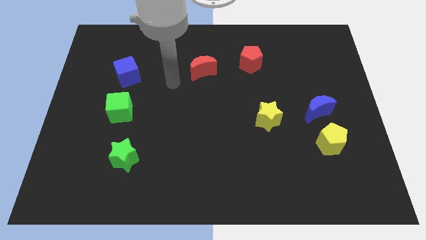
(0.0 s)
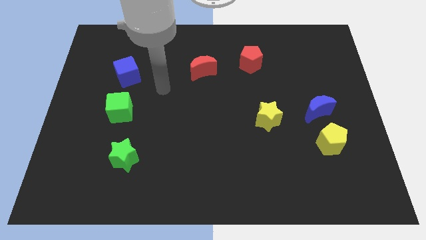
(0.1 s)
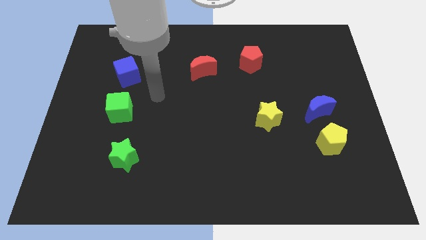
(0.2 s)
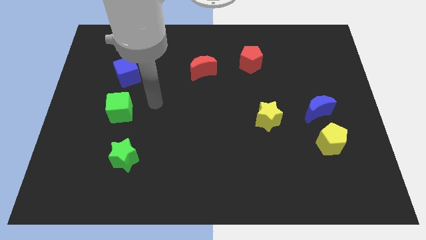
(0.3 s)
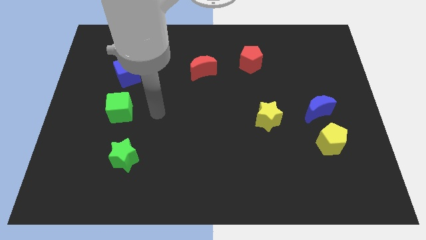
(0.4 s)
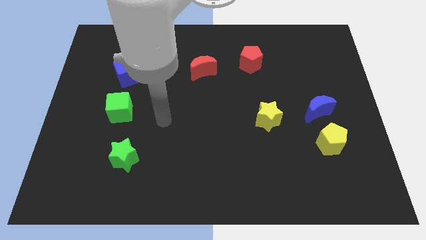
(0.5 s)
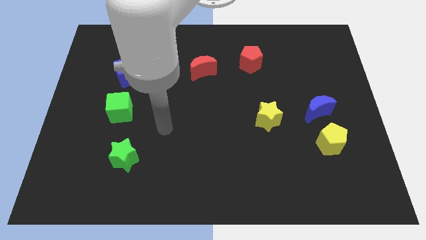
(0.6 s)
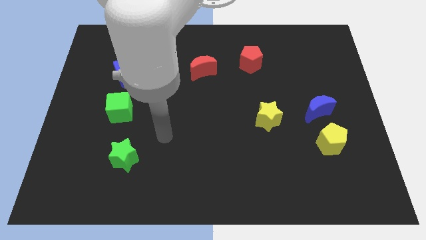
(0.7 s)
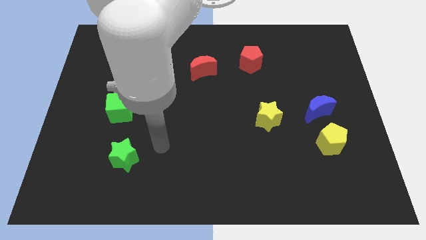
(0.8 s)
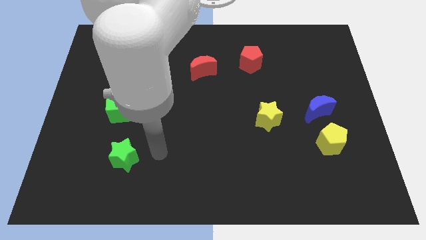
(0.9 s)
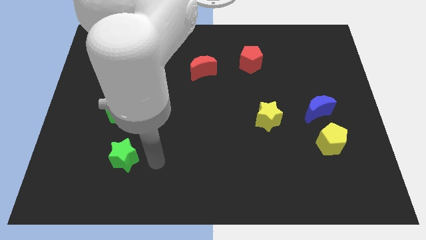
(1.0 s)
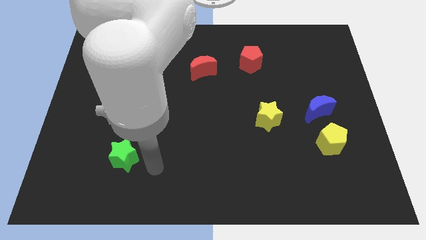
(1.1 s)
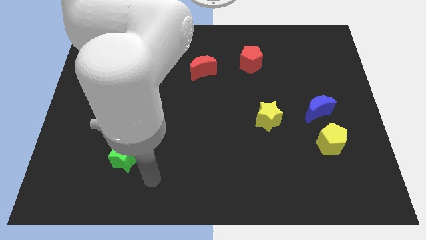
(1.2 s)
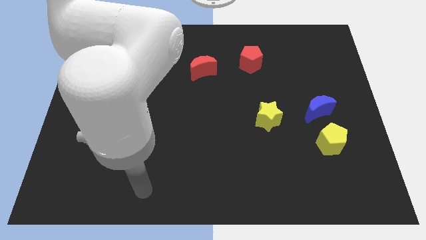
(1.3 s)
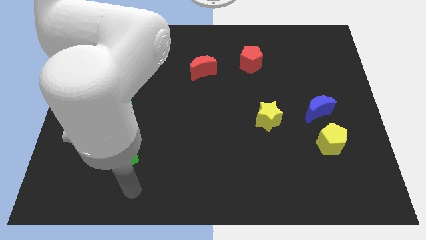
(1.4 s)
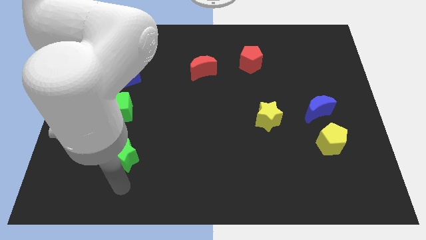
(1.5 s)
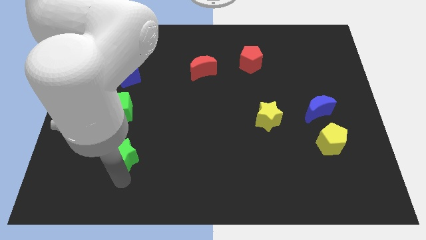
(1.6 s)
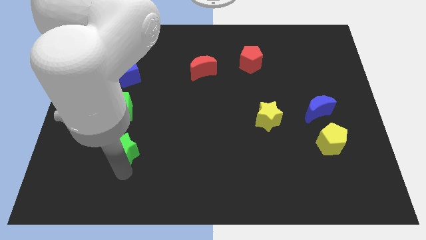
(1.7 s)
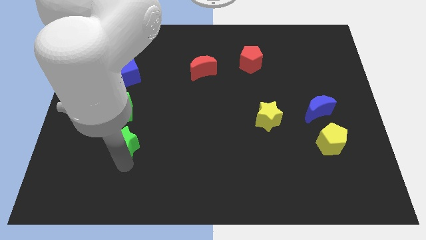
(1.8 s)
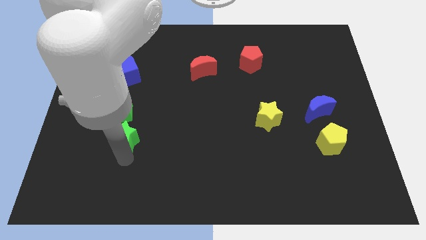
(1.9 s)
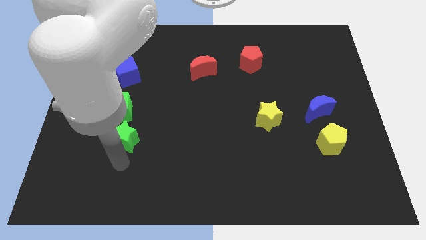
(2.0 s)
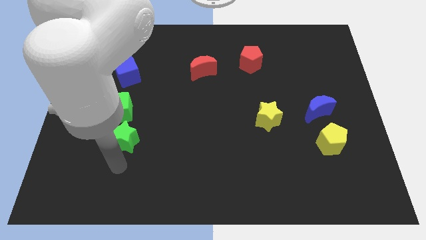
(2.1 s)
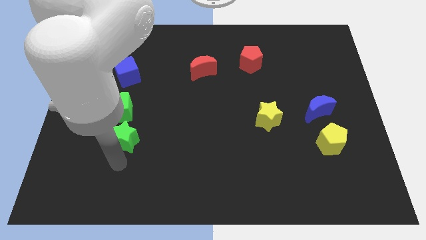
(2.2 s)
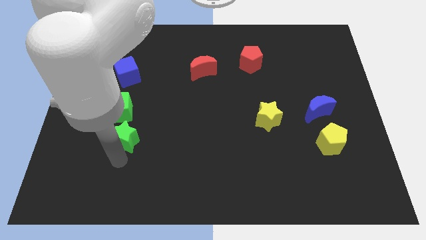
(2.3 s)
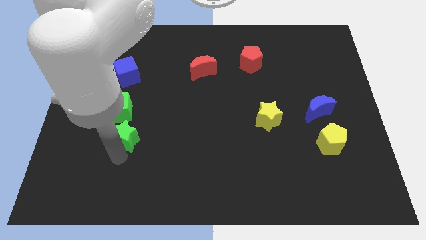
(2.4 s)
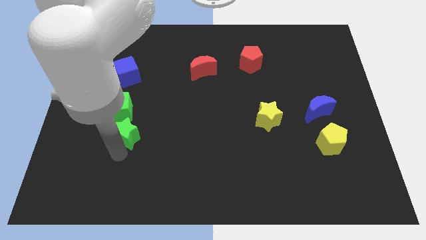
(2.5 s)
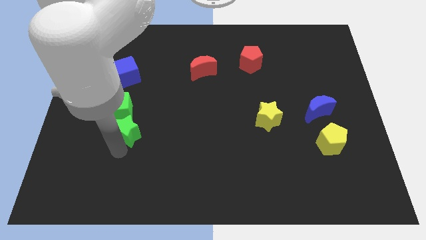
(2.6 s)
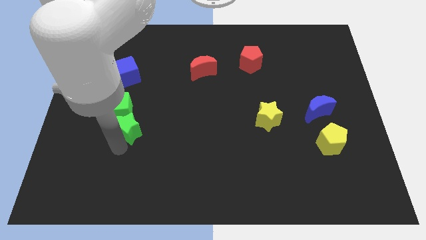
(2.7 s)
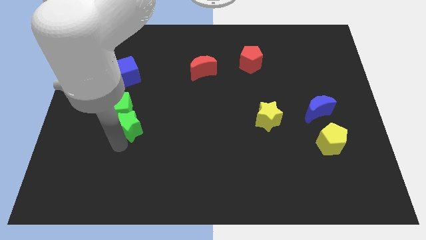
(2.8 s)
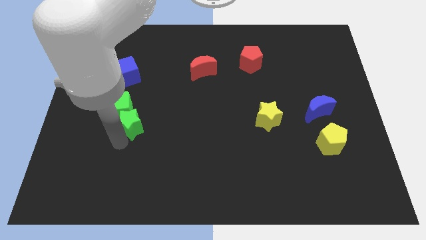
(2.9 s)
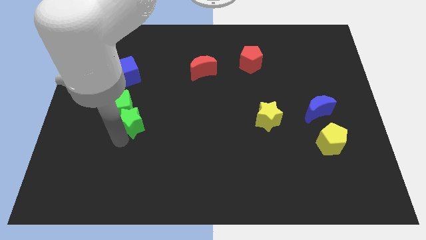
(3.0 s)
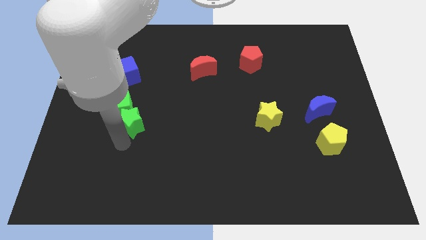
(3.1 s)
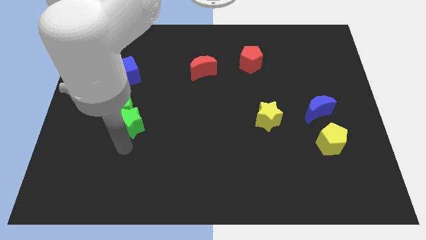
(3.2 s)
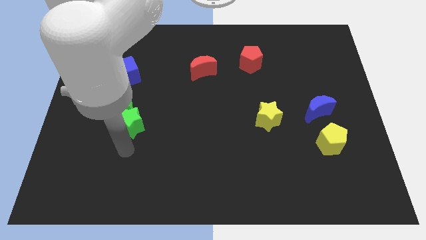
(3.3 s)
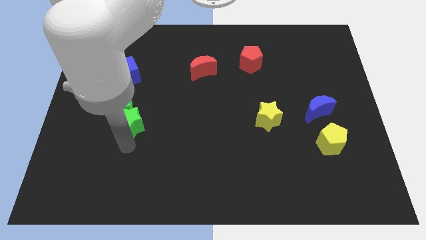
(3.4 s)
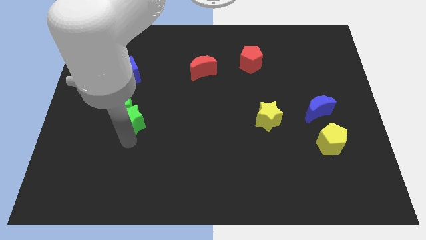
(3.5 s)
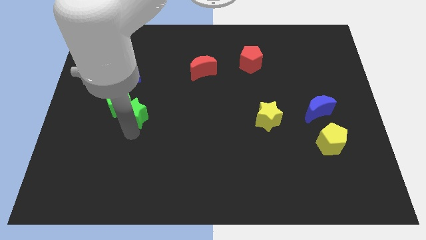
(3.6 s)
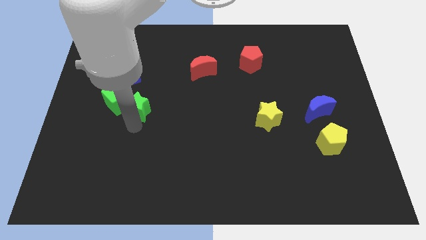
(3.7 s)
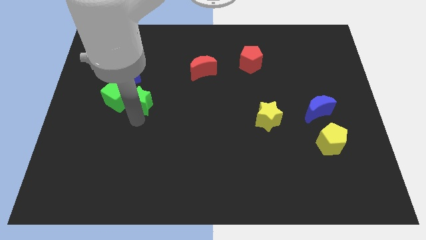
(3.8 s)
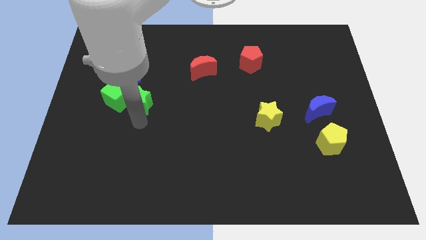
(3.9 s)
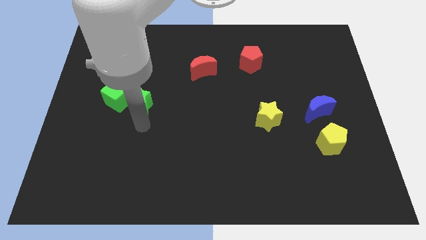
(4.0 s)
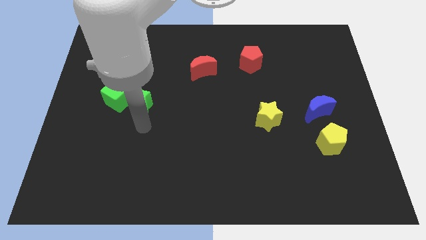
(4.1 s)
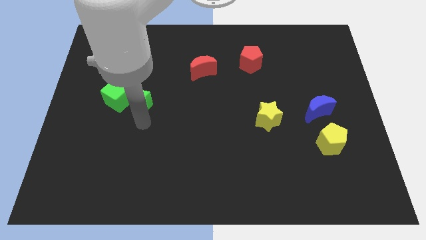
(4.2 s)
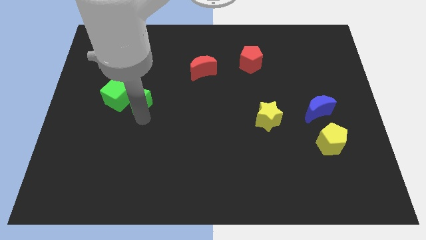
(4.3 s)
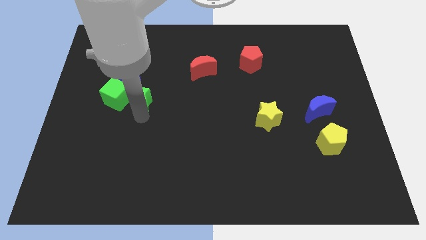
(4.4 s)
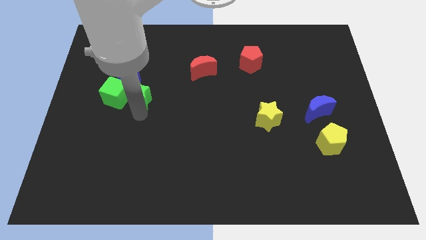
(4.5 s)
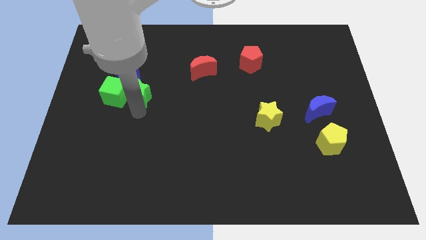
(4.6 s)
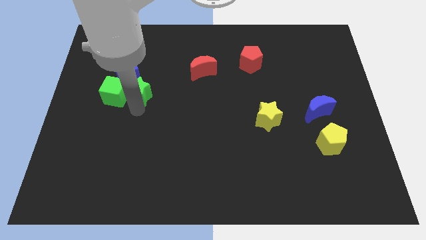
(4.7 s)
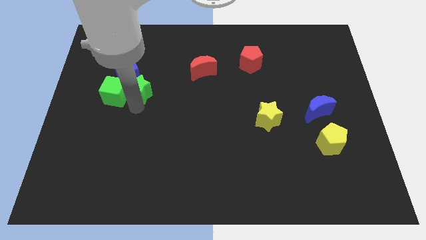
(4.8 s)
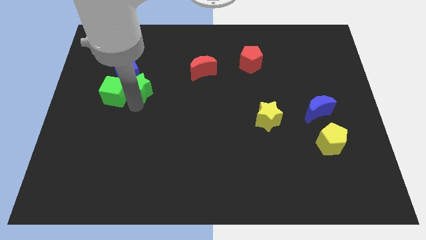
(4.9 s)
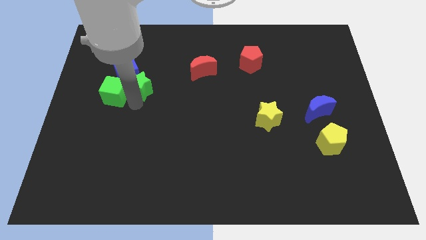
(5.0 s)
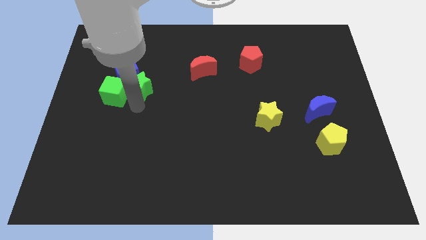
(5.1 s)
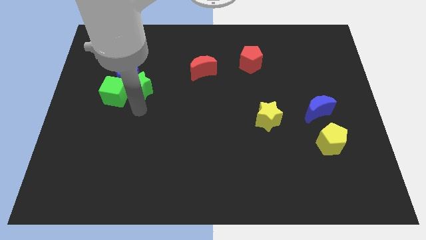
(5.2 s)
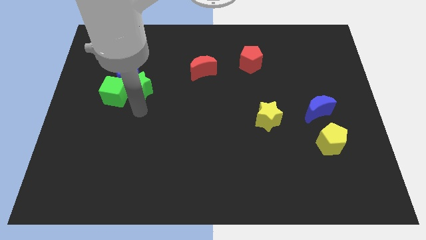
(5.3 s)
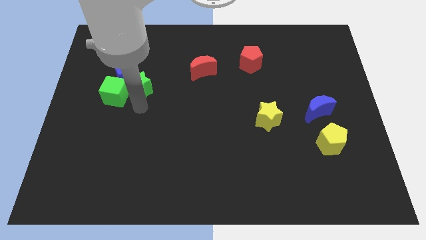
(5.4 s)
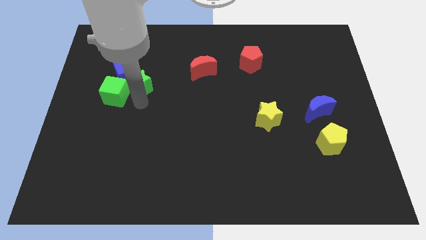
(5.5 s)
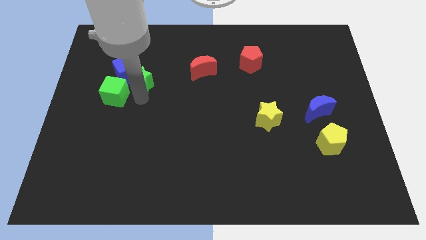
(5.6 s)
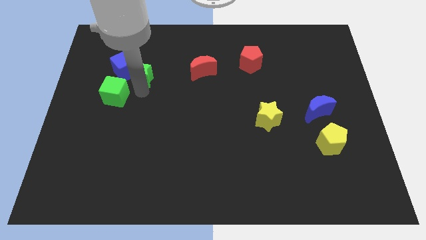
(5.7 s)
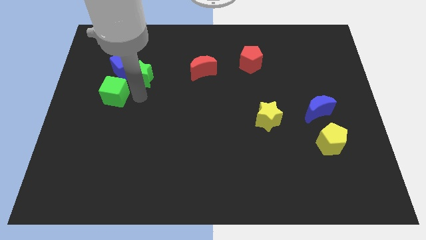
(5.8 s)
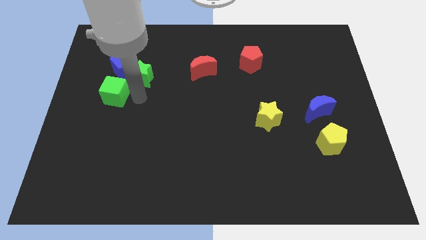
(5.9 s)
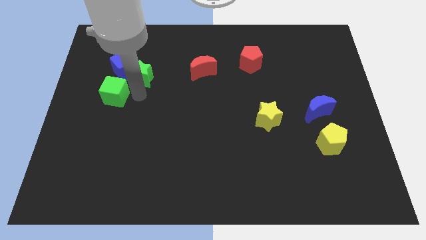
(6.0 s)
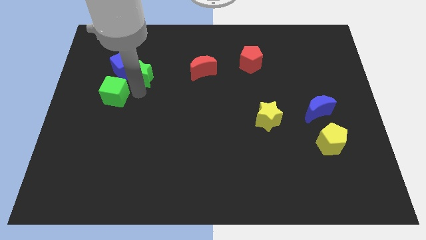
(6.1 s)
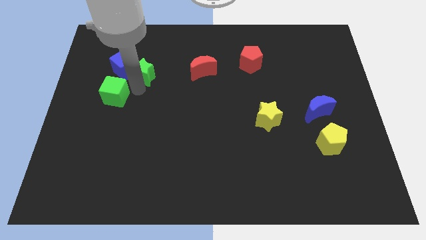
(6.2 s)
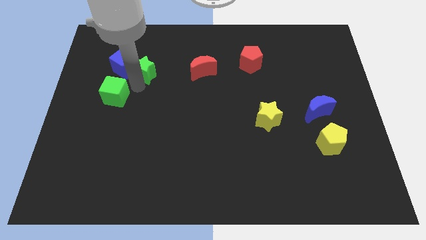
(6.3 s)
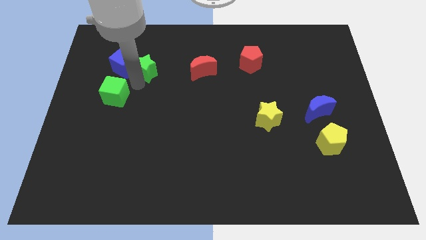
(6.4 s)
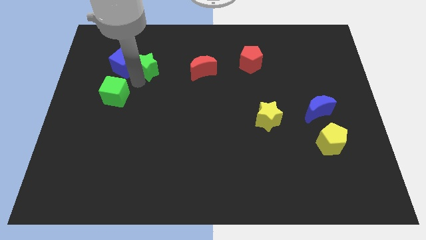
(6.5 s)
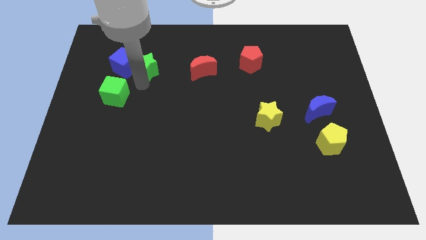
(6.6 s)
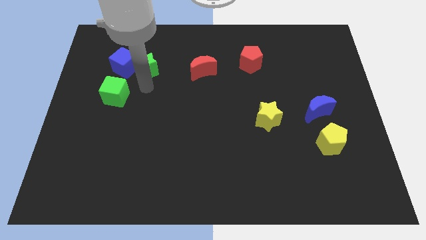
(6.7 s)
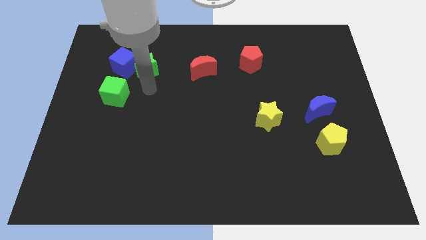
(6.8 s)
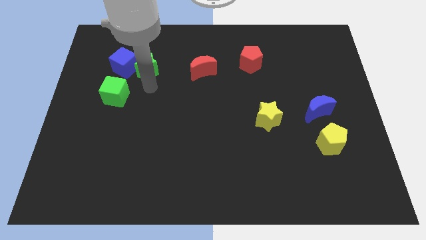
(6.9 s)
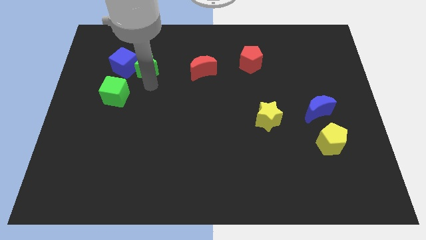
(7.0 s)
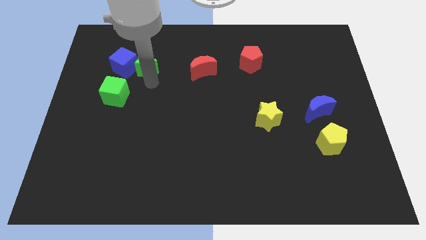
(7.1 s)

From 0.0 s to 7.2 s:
slide the green star to the top right side of the blue cube
